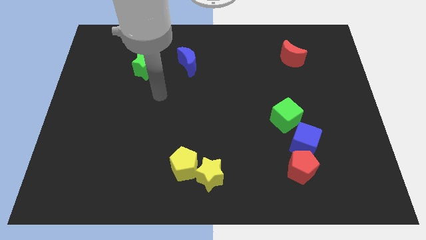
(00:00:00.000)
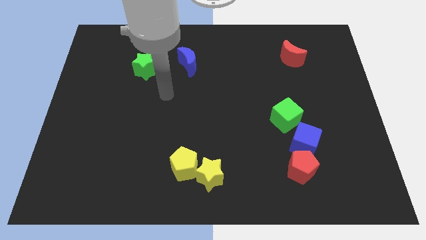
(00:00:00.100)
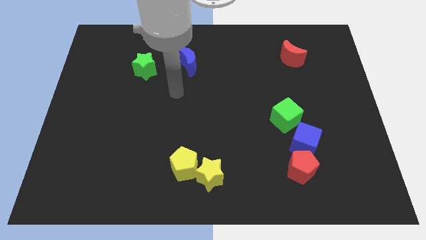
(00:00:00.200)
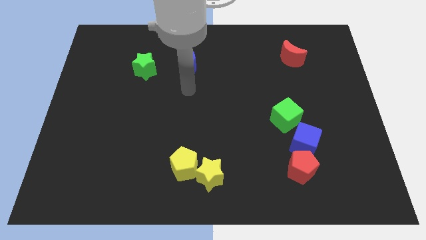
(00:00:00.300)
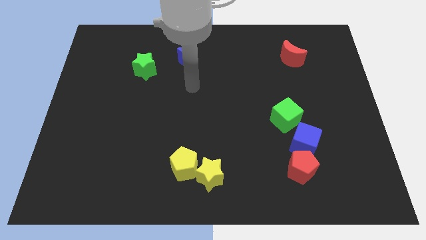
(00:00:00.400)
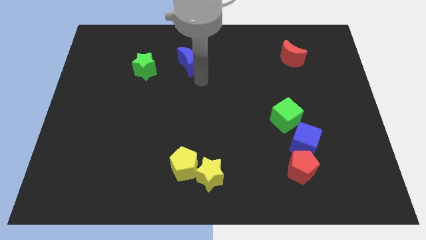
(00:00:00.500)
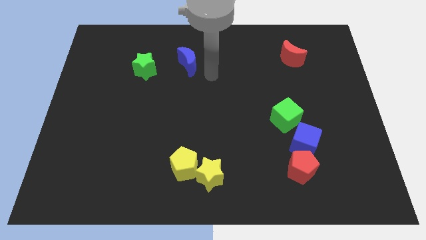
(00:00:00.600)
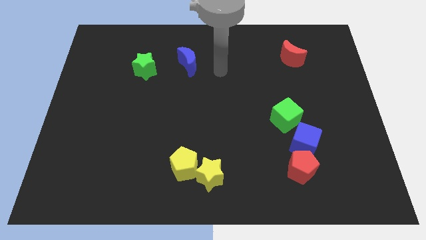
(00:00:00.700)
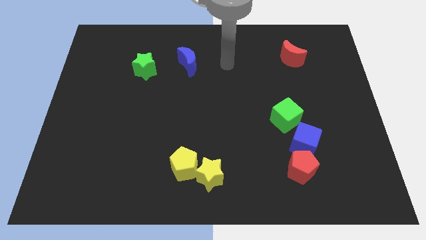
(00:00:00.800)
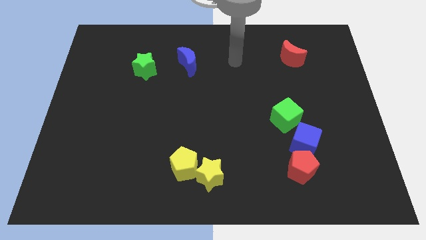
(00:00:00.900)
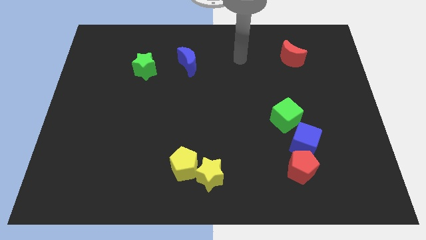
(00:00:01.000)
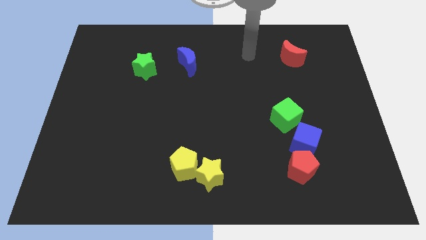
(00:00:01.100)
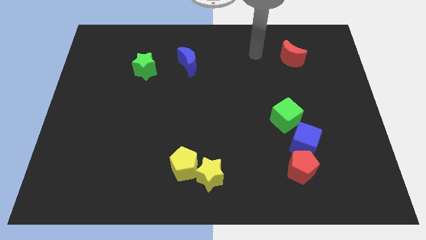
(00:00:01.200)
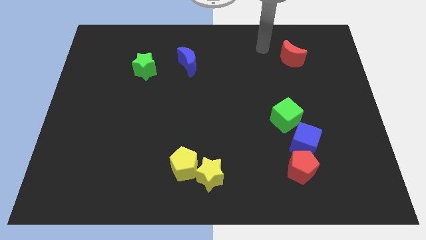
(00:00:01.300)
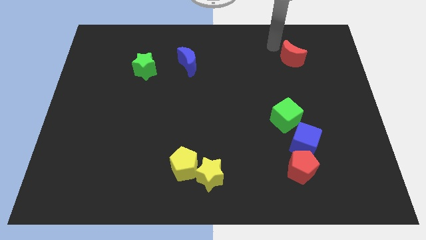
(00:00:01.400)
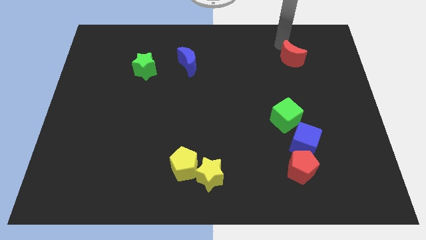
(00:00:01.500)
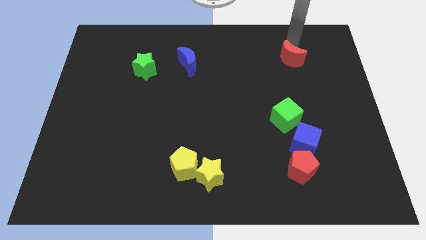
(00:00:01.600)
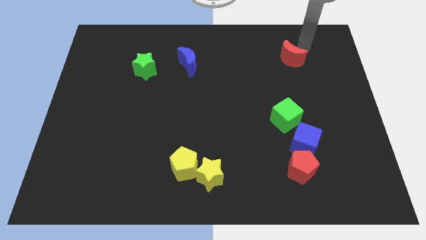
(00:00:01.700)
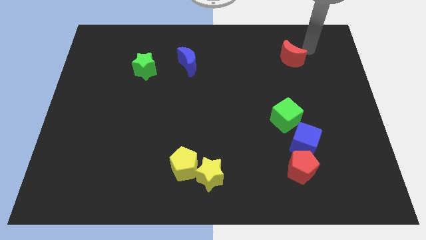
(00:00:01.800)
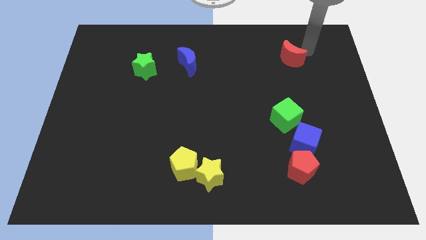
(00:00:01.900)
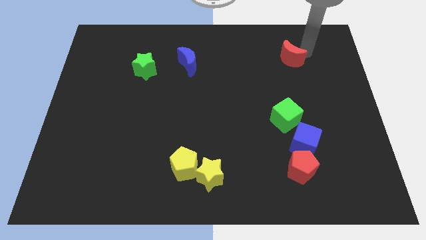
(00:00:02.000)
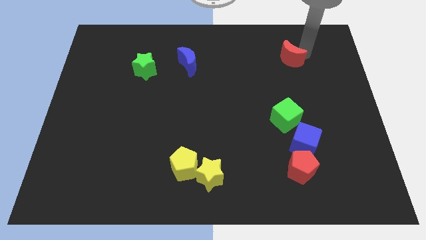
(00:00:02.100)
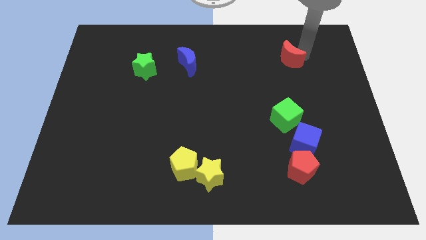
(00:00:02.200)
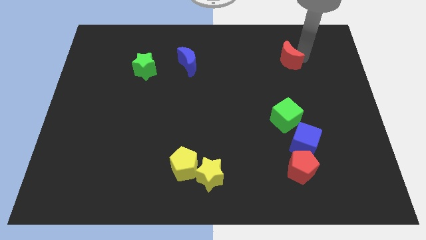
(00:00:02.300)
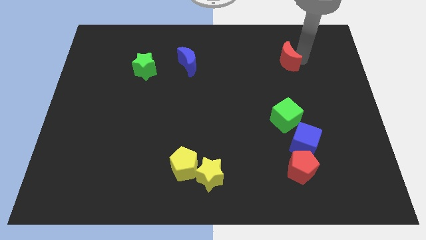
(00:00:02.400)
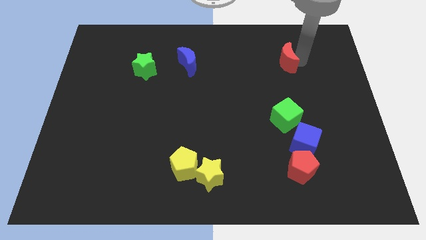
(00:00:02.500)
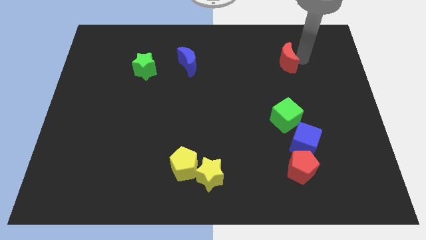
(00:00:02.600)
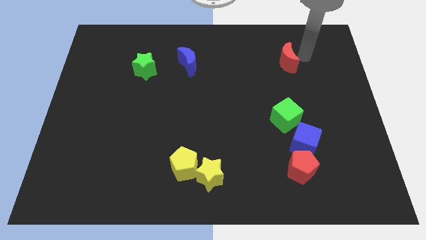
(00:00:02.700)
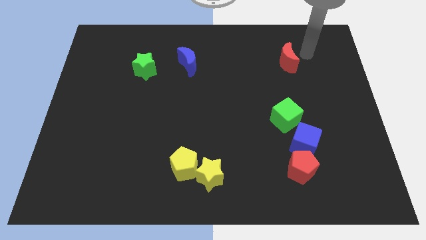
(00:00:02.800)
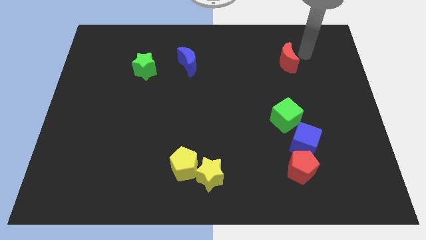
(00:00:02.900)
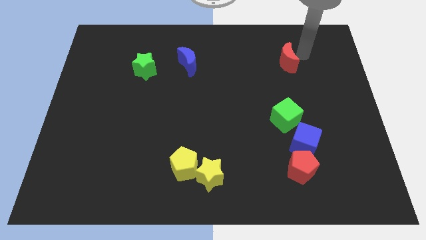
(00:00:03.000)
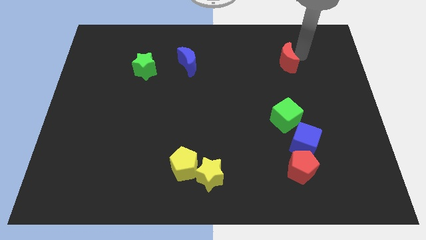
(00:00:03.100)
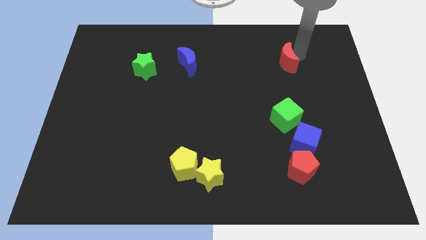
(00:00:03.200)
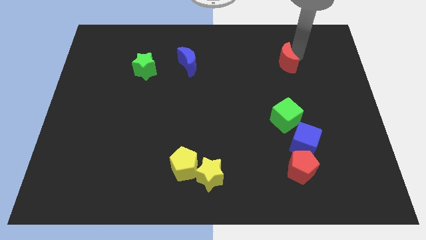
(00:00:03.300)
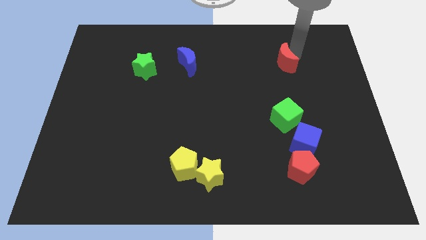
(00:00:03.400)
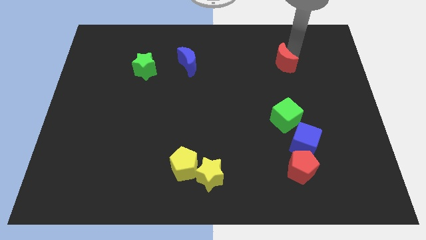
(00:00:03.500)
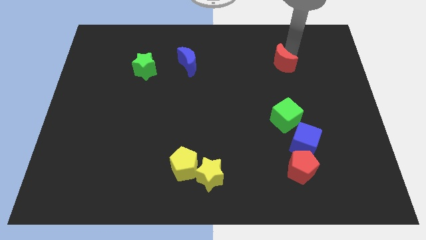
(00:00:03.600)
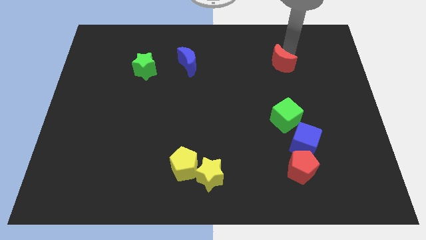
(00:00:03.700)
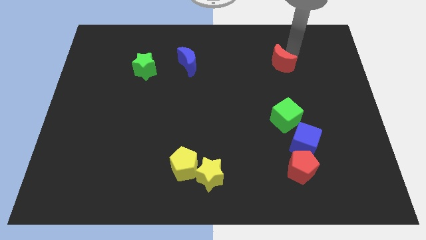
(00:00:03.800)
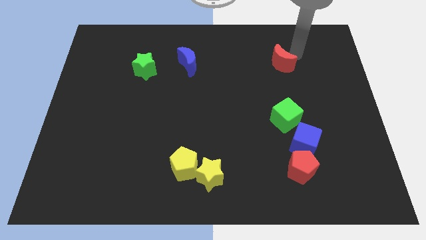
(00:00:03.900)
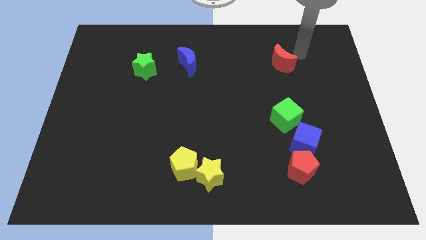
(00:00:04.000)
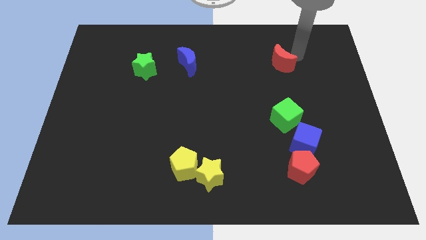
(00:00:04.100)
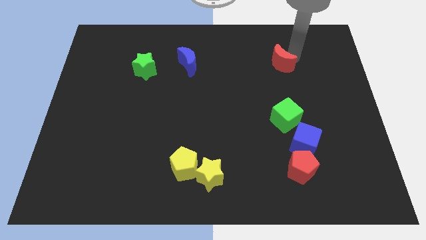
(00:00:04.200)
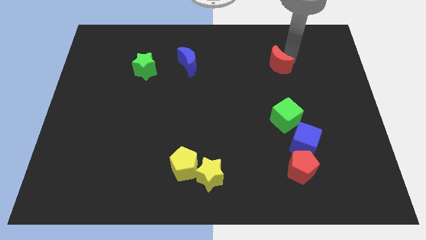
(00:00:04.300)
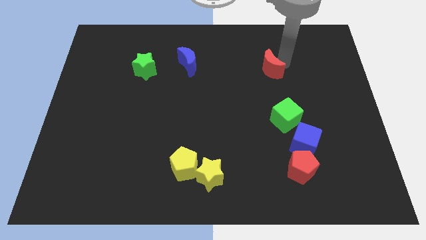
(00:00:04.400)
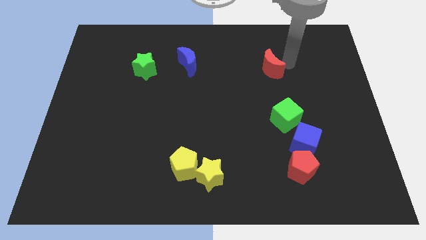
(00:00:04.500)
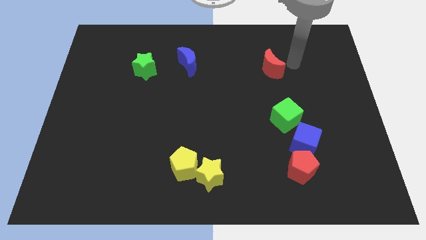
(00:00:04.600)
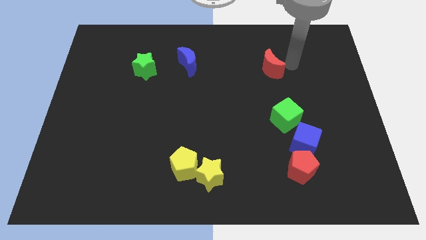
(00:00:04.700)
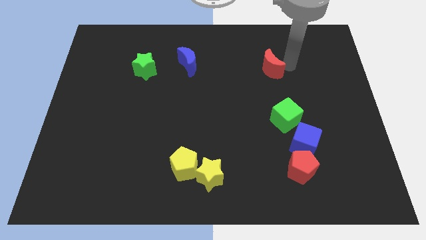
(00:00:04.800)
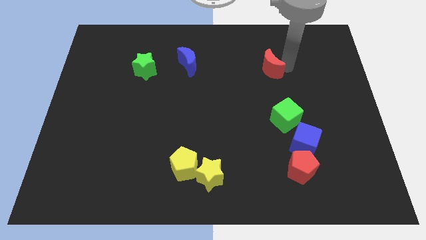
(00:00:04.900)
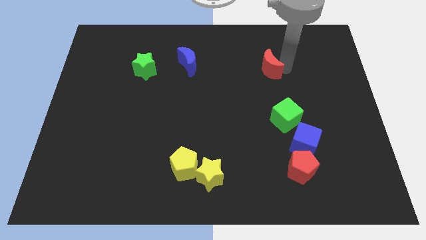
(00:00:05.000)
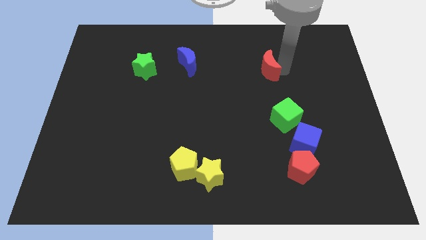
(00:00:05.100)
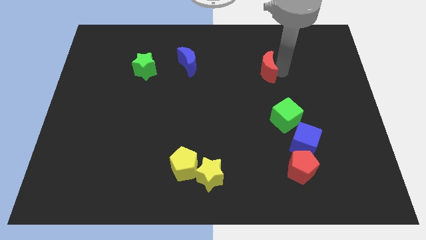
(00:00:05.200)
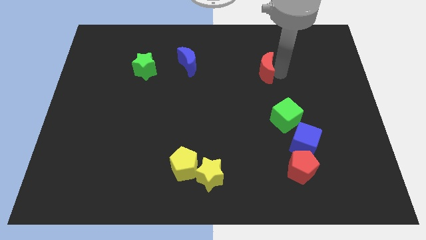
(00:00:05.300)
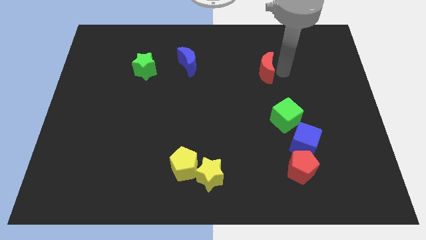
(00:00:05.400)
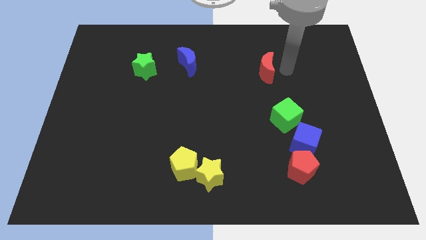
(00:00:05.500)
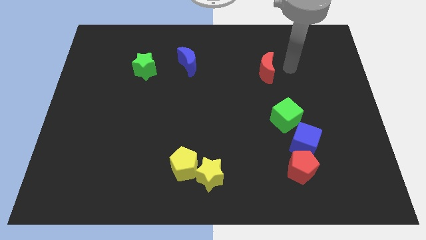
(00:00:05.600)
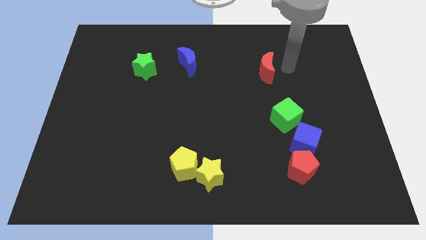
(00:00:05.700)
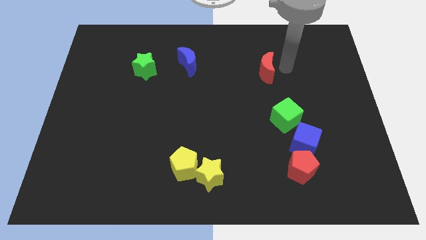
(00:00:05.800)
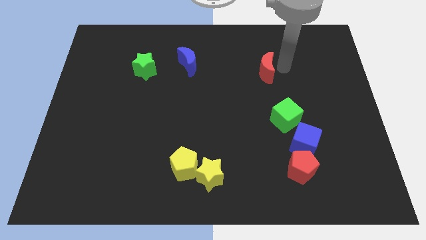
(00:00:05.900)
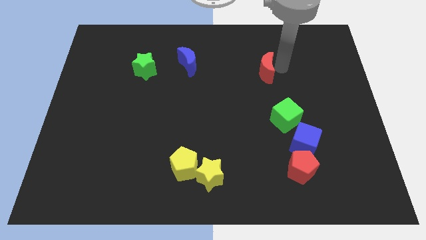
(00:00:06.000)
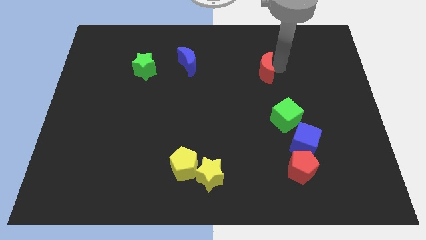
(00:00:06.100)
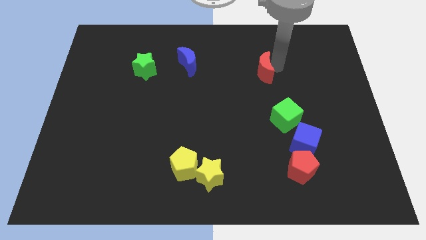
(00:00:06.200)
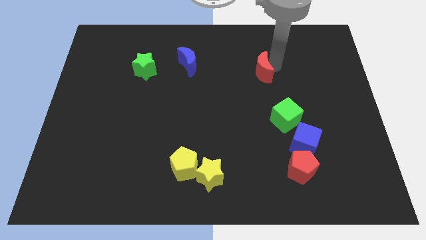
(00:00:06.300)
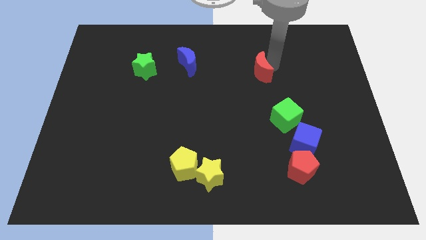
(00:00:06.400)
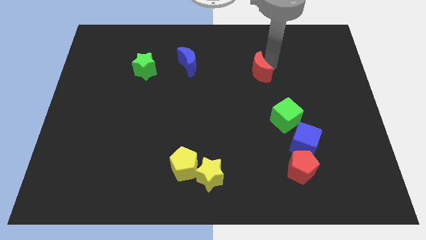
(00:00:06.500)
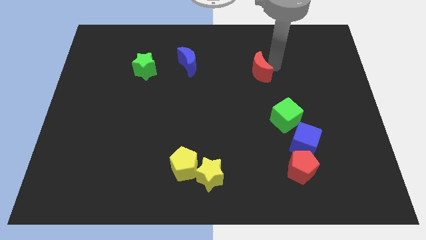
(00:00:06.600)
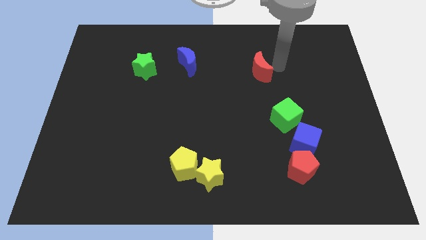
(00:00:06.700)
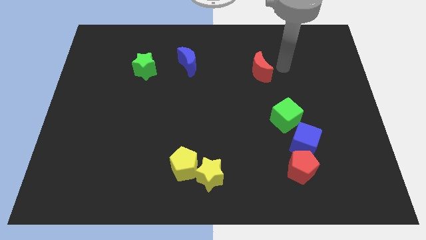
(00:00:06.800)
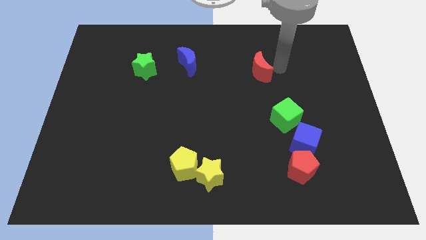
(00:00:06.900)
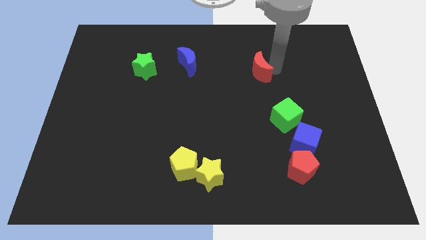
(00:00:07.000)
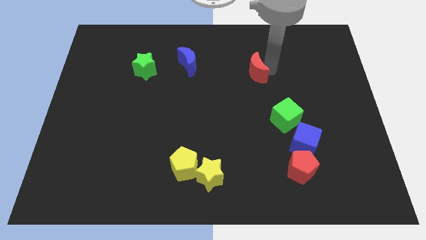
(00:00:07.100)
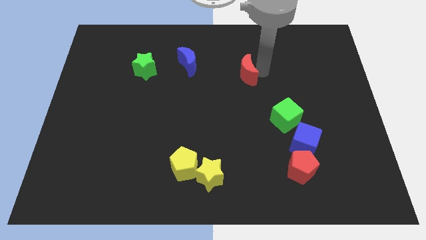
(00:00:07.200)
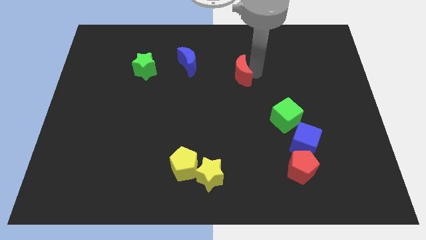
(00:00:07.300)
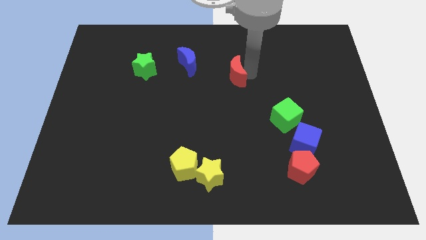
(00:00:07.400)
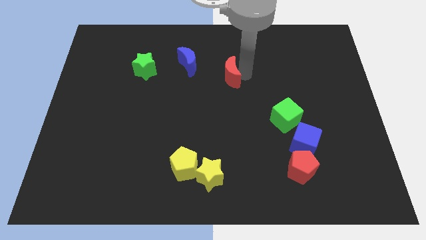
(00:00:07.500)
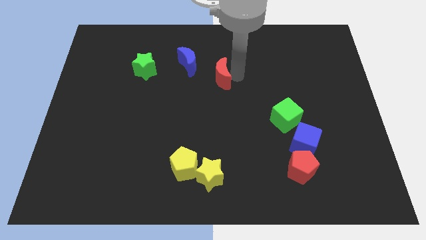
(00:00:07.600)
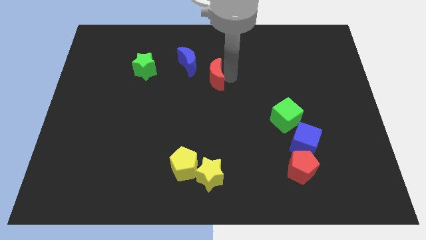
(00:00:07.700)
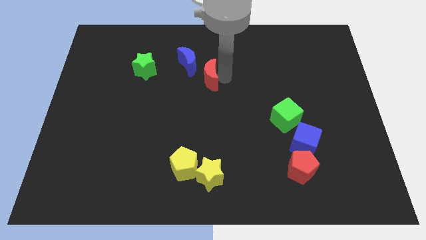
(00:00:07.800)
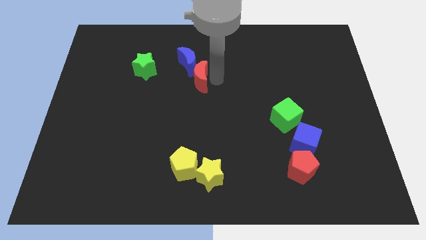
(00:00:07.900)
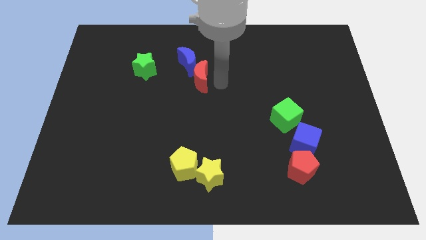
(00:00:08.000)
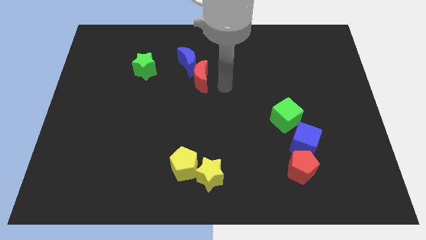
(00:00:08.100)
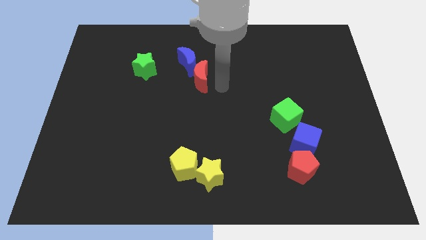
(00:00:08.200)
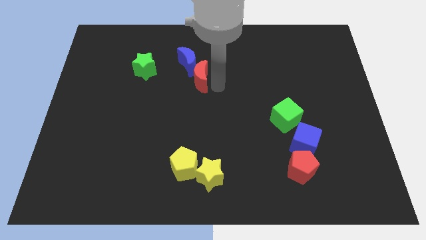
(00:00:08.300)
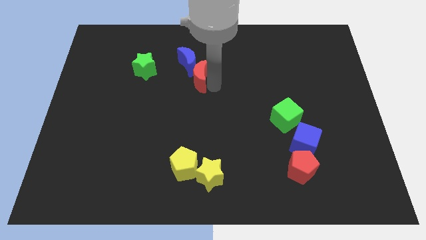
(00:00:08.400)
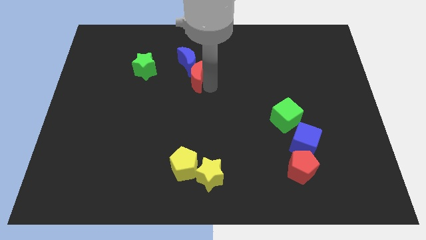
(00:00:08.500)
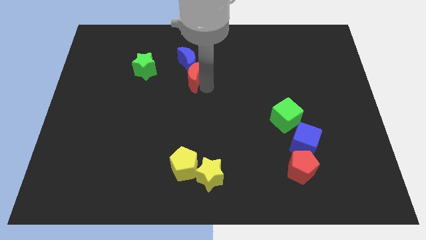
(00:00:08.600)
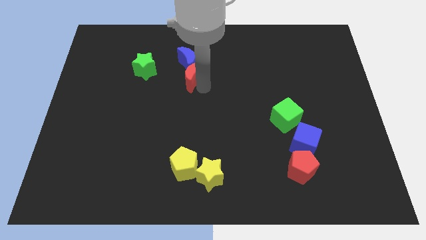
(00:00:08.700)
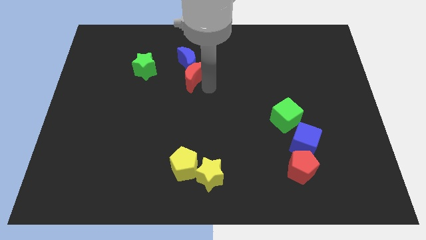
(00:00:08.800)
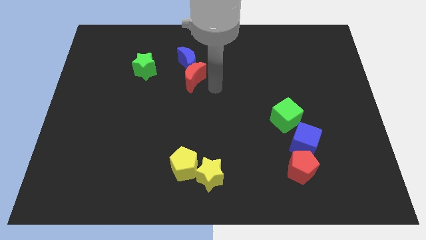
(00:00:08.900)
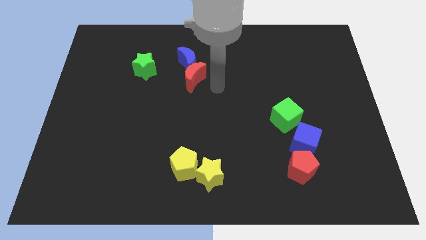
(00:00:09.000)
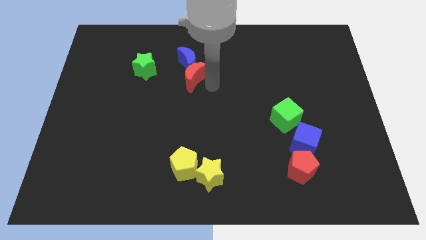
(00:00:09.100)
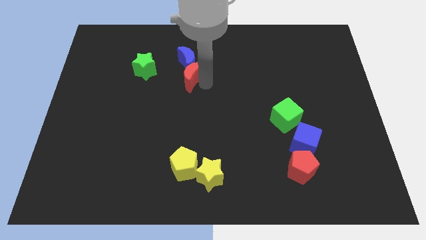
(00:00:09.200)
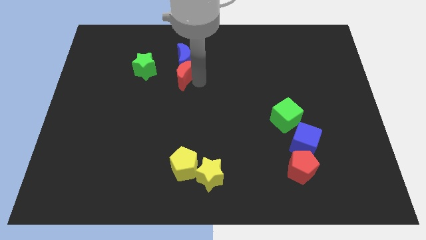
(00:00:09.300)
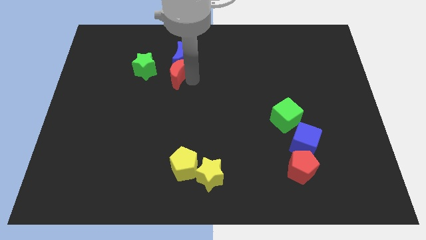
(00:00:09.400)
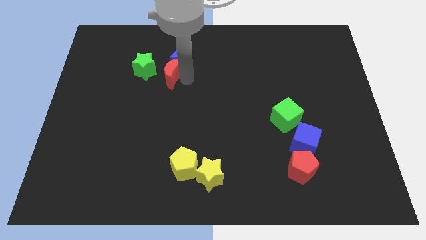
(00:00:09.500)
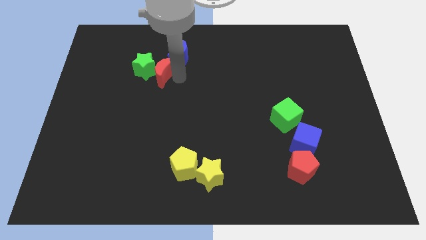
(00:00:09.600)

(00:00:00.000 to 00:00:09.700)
push the red moon to the green star
